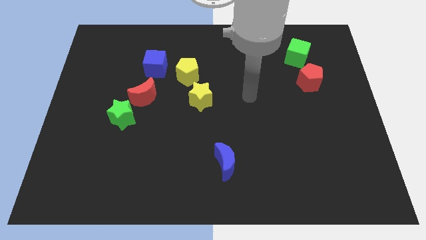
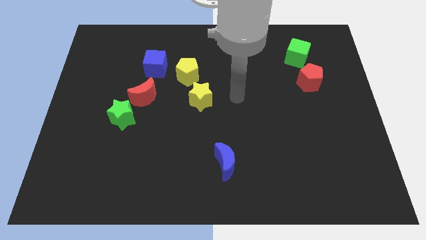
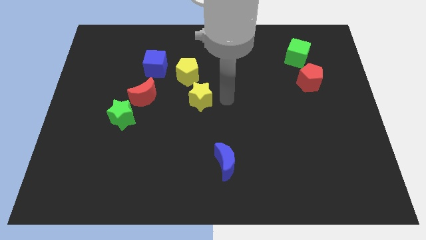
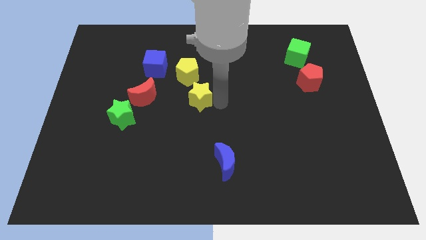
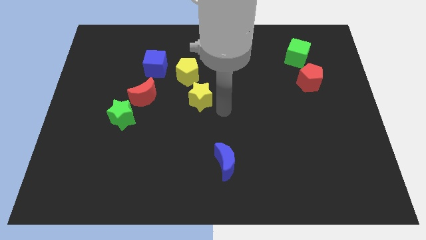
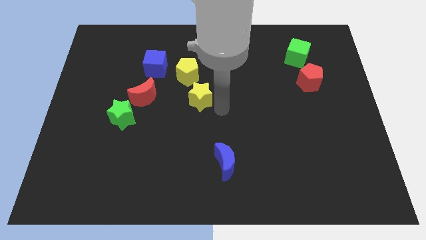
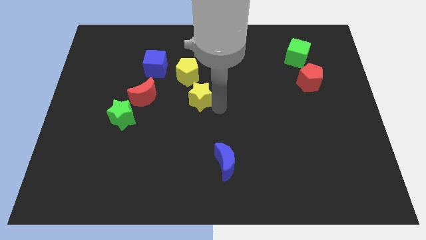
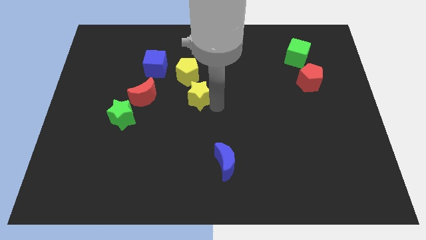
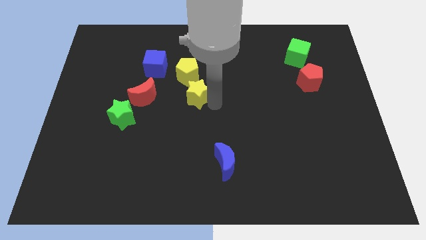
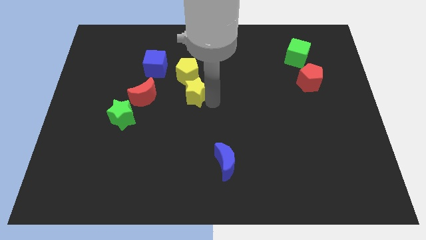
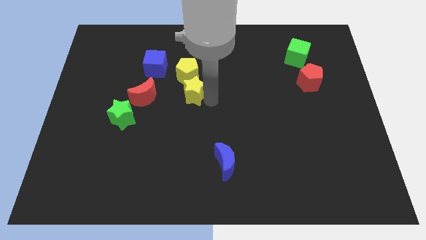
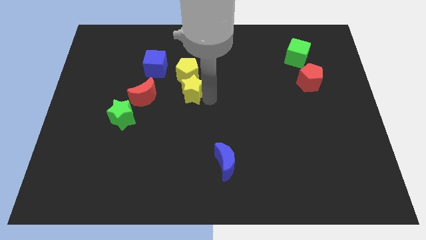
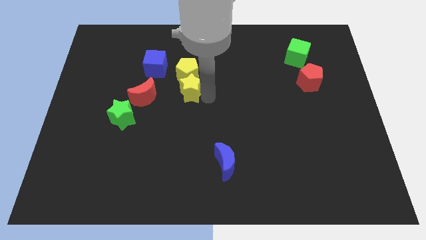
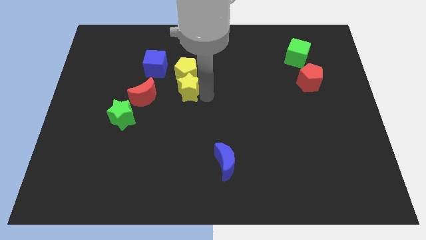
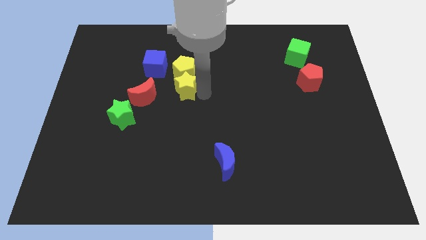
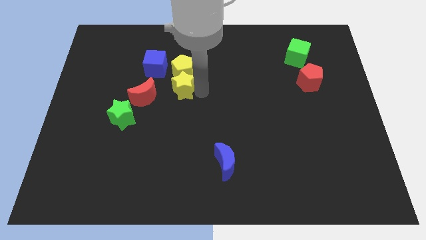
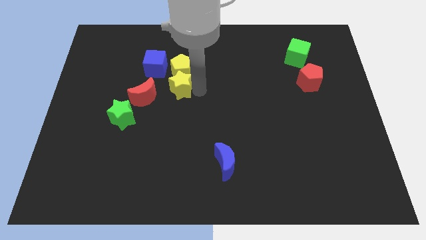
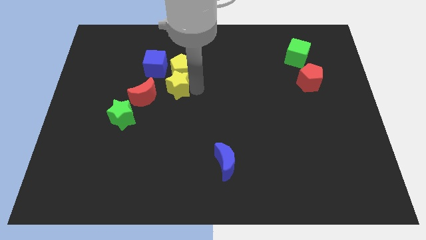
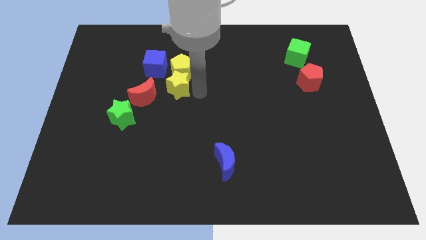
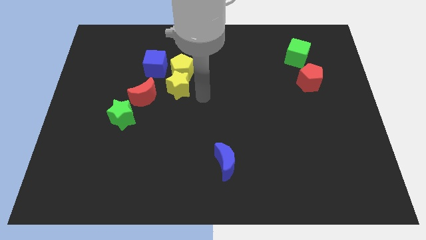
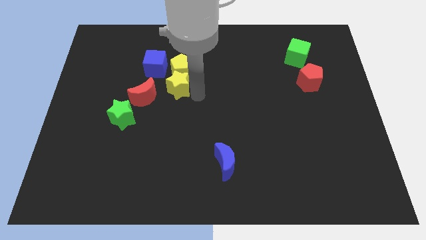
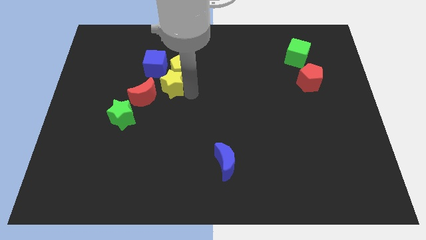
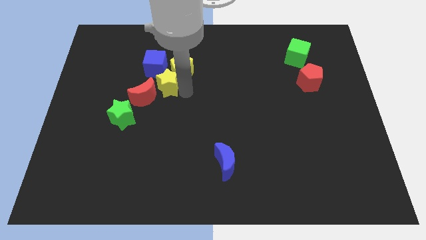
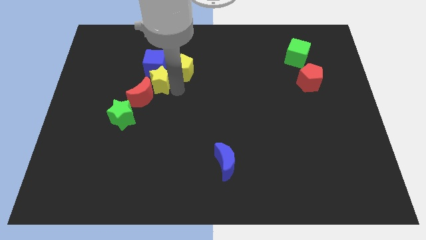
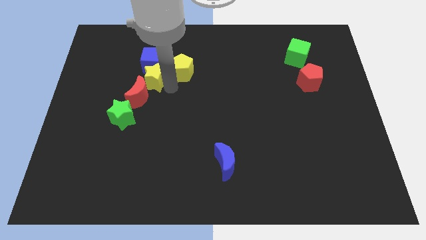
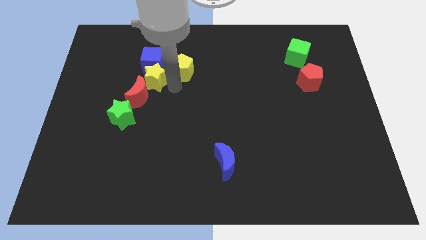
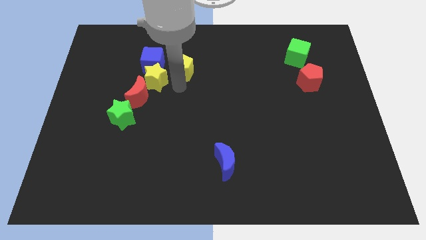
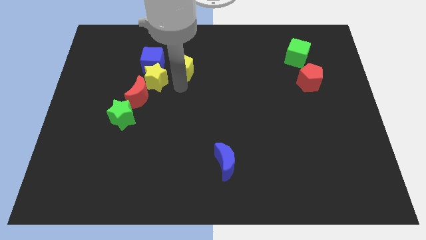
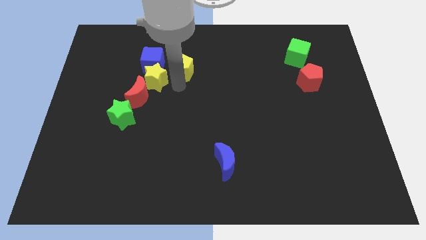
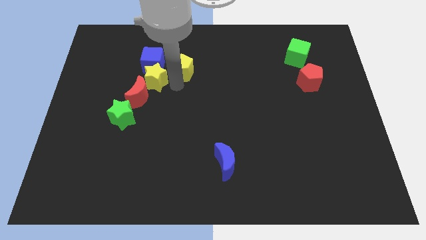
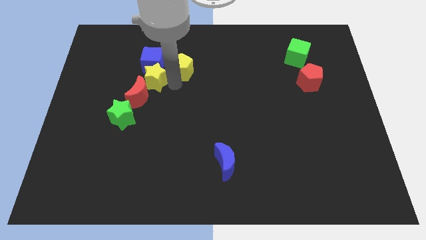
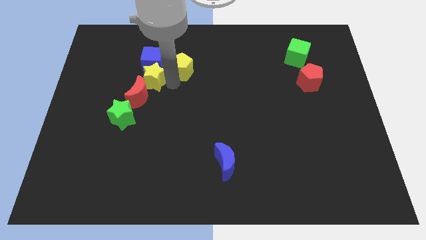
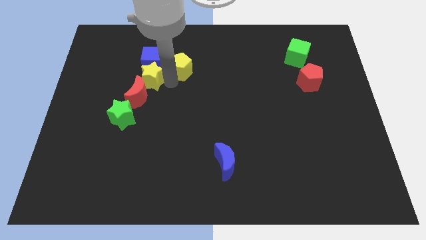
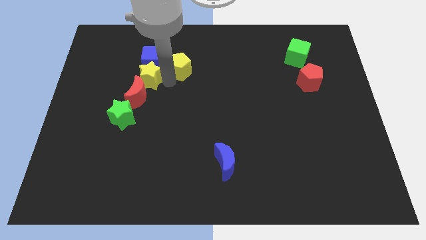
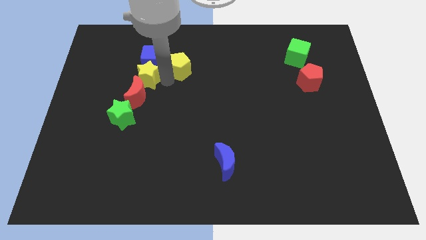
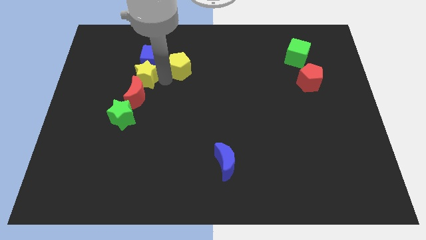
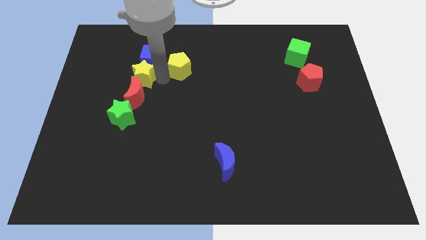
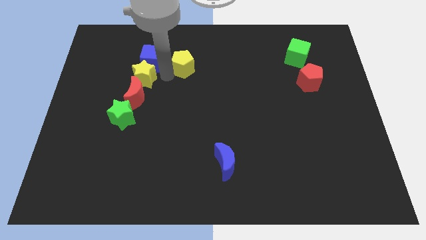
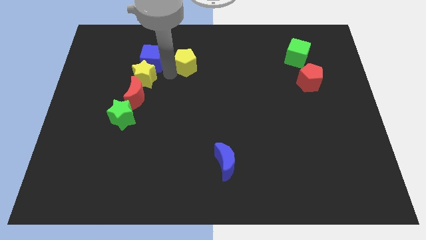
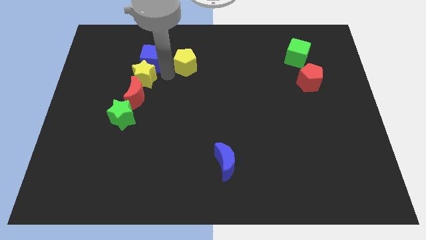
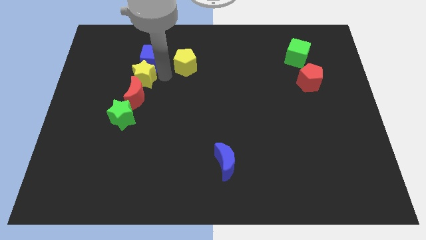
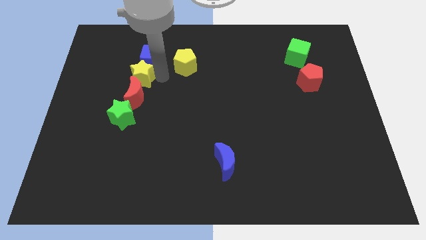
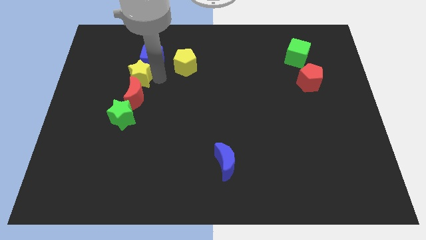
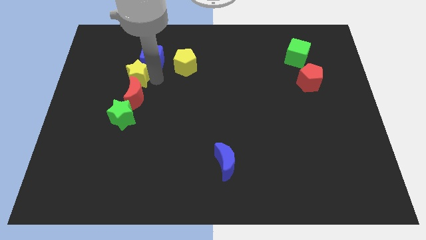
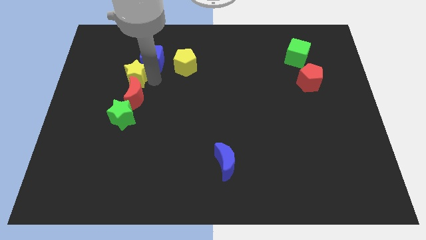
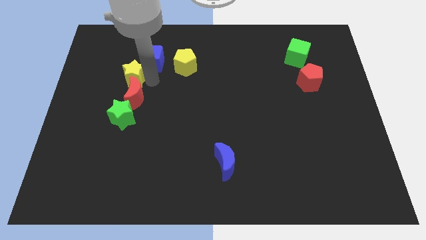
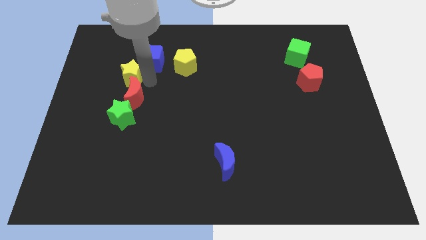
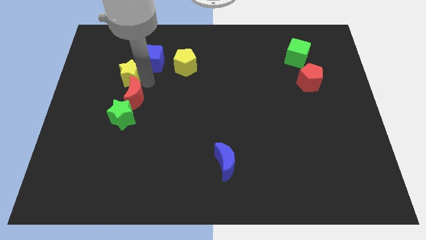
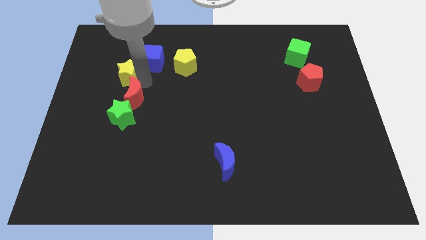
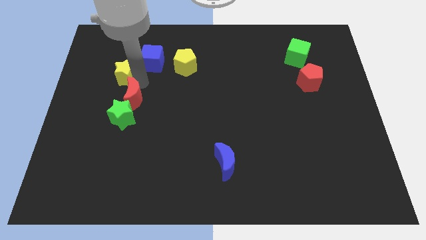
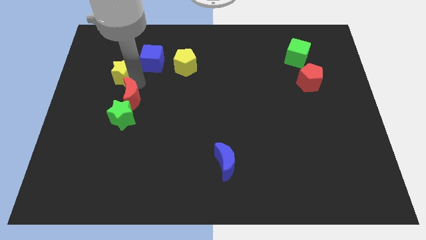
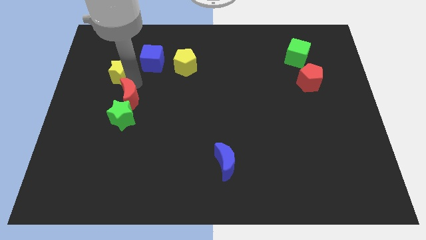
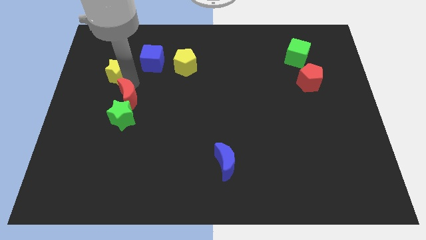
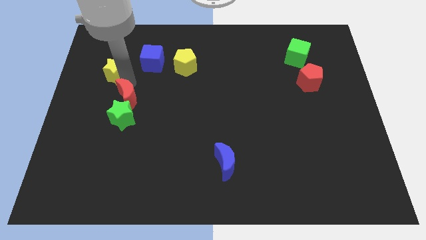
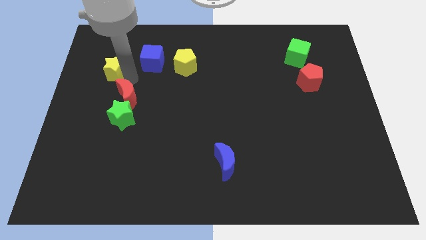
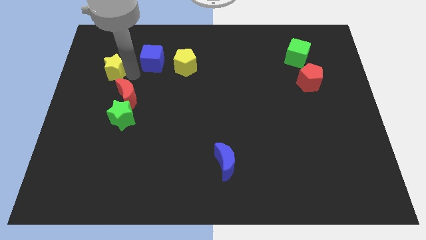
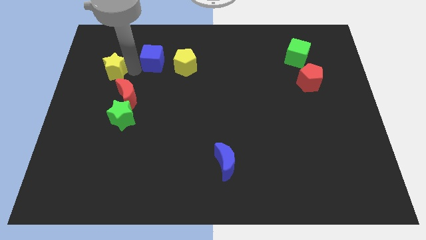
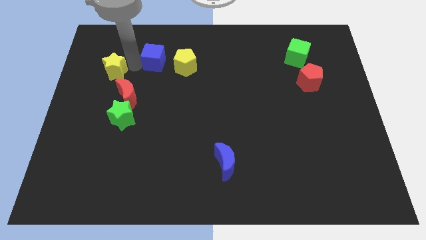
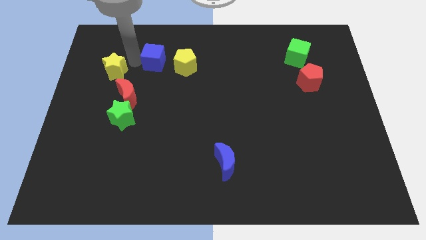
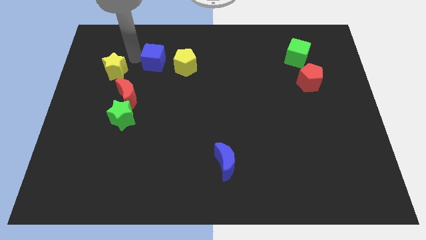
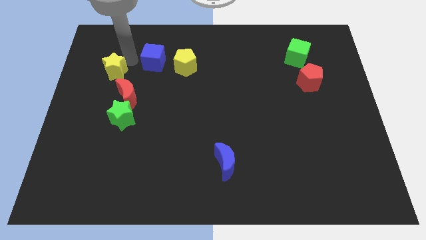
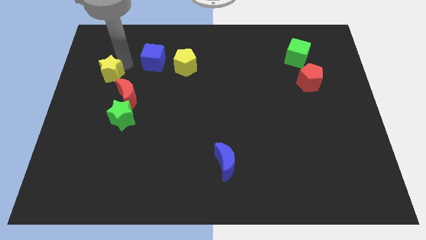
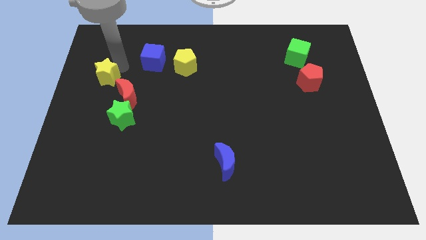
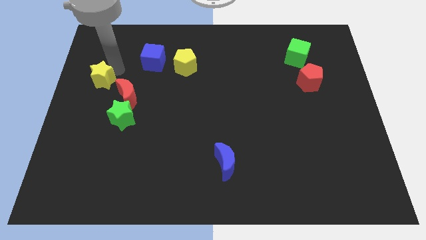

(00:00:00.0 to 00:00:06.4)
put the yellow star to the left side of the board

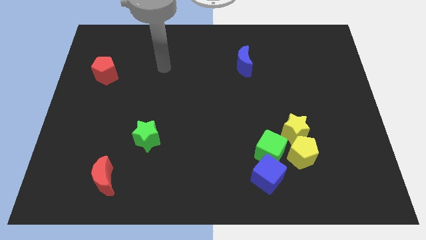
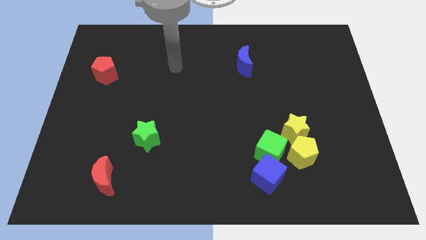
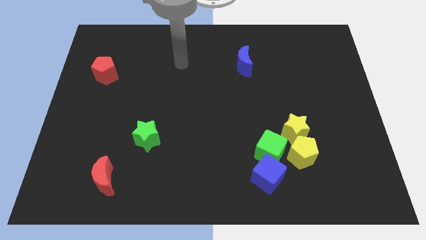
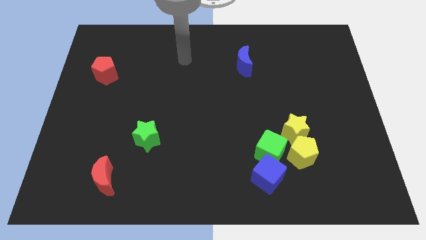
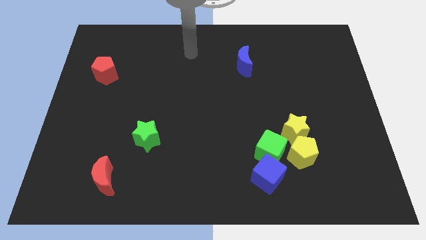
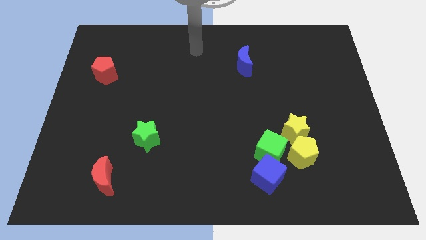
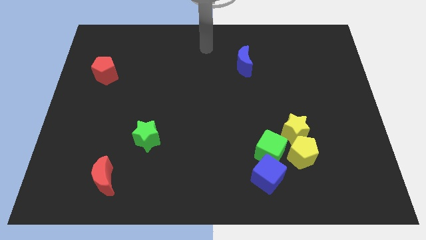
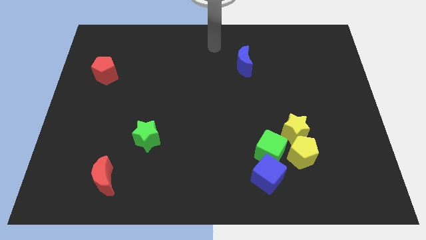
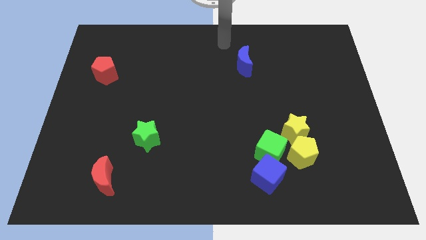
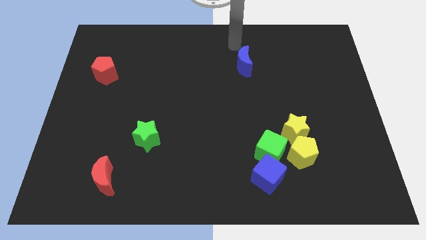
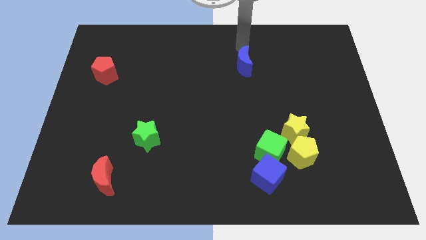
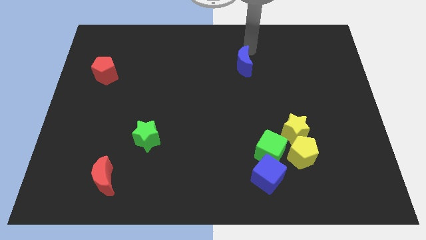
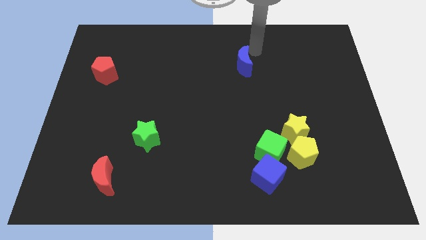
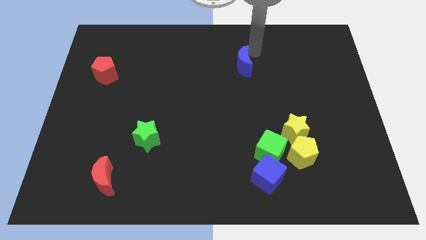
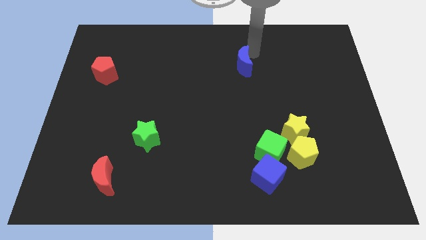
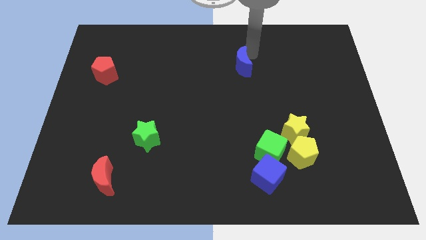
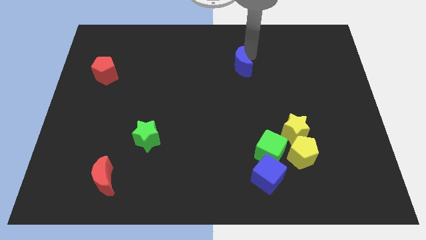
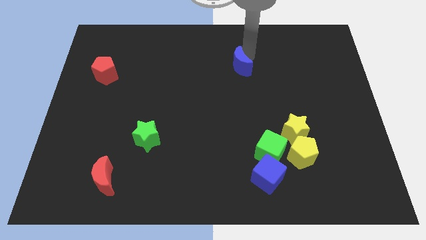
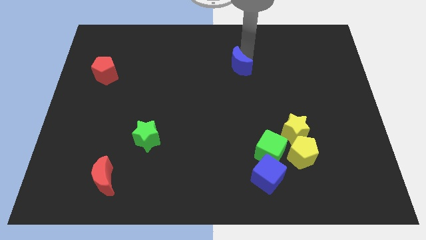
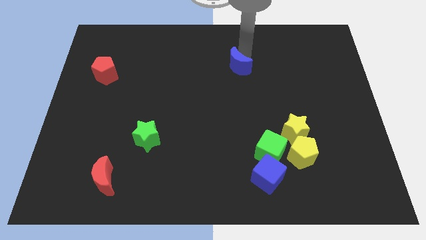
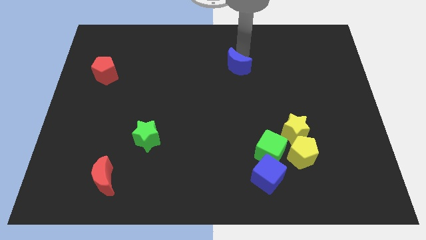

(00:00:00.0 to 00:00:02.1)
move the blue moon to the center of the board
